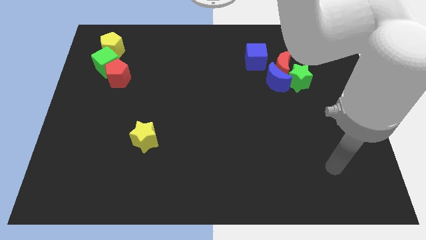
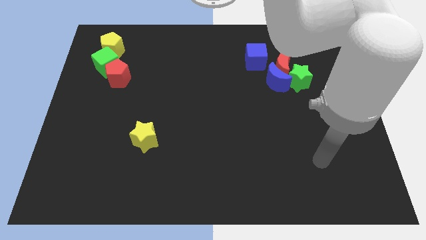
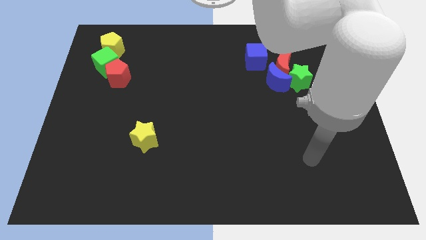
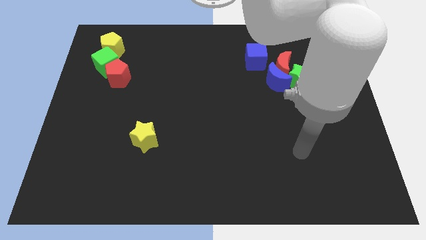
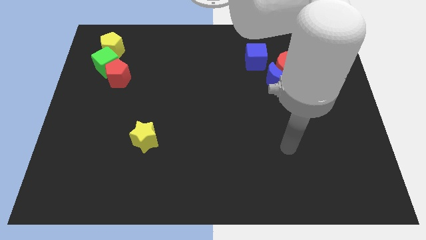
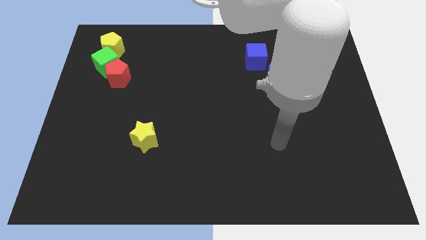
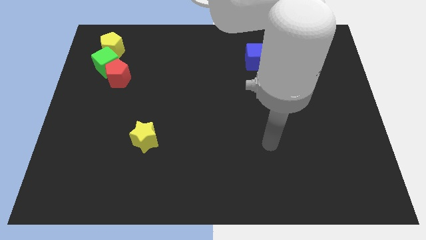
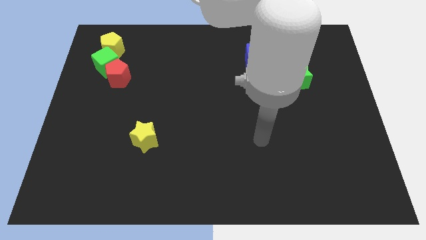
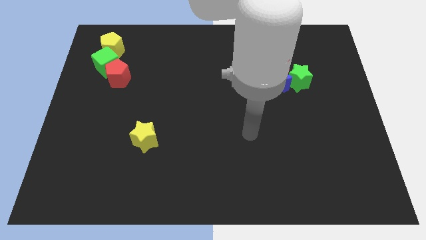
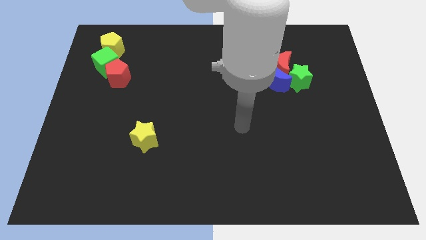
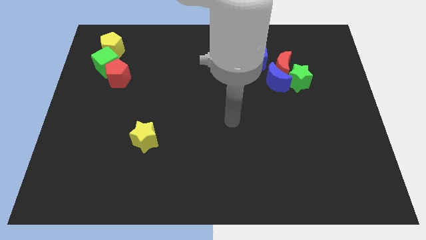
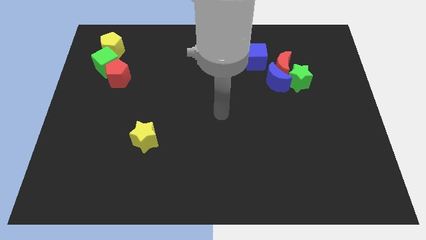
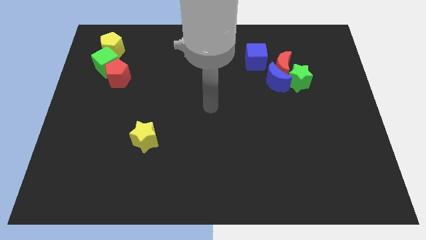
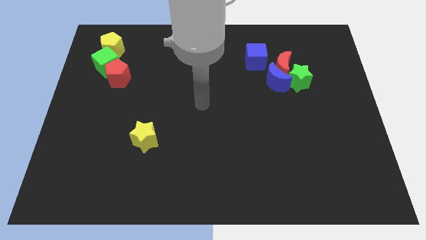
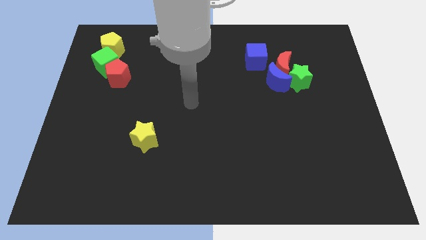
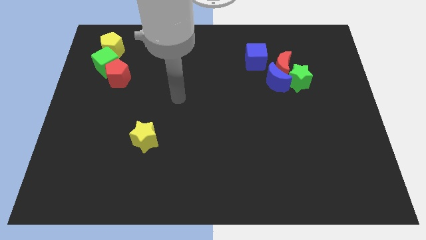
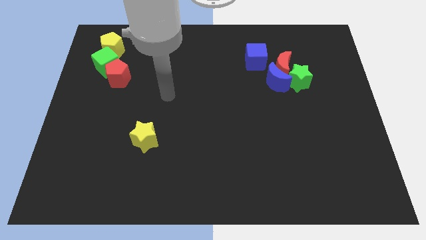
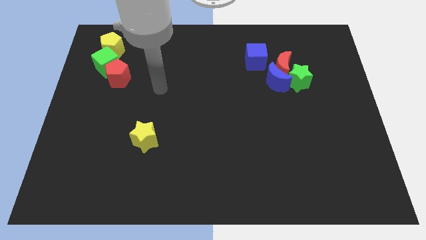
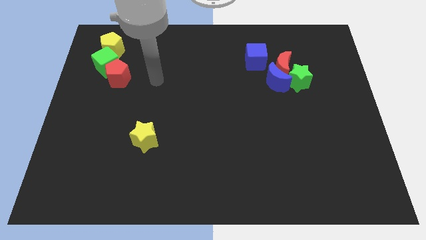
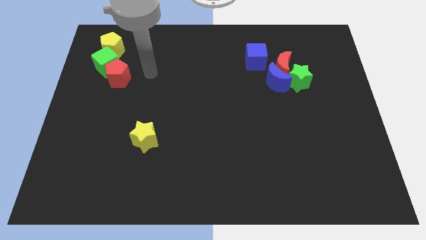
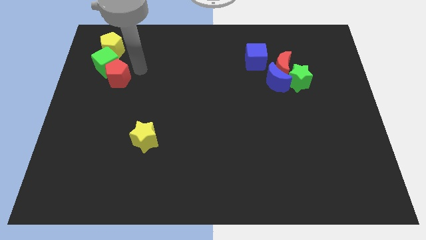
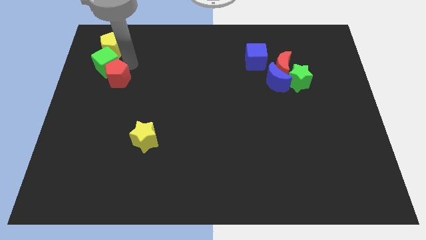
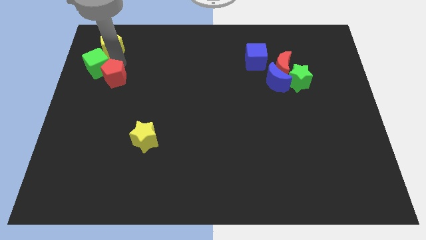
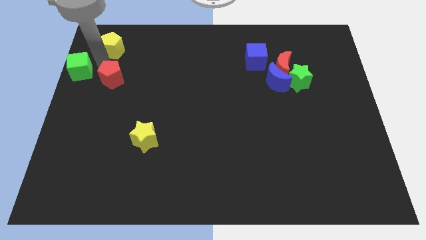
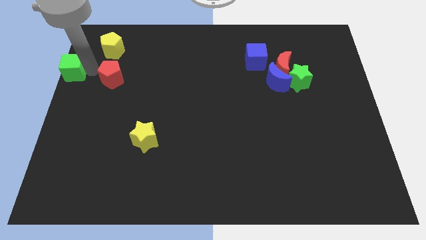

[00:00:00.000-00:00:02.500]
move the red pentagon away from the green cube

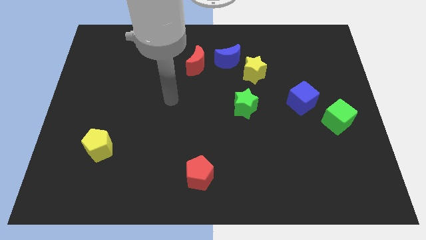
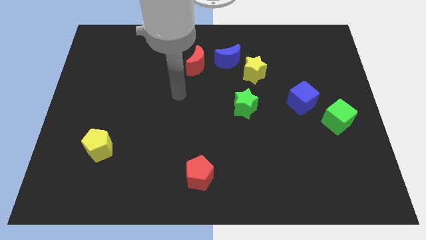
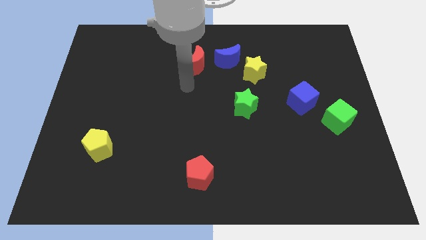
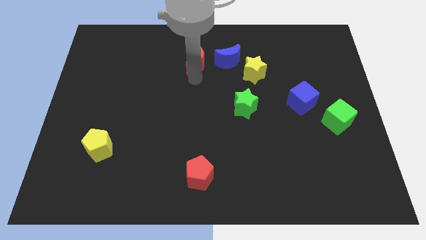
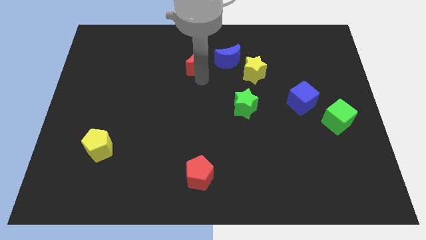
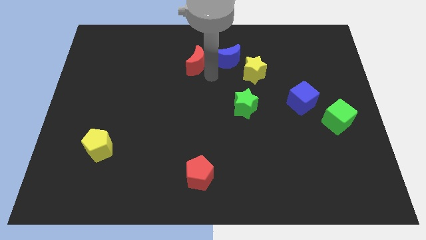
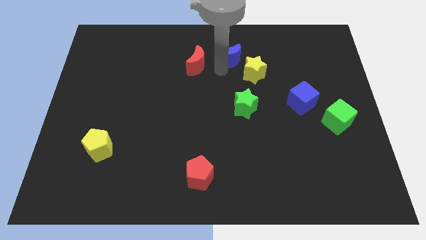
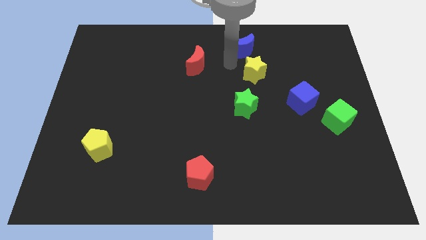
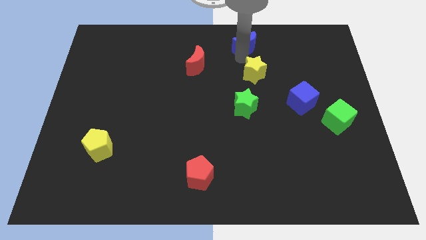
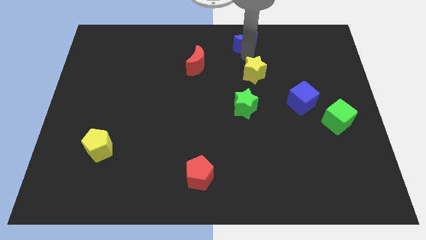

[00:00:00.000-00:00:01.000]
move the yellow star away from the blue moon

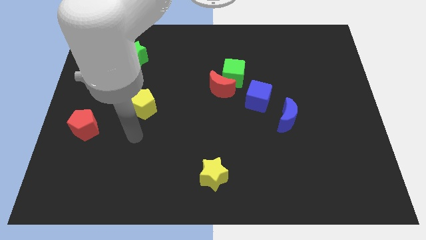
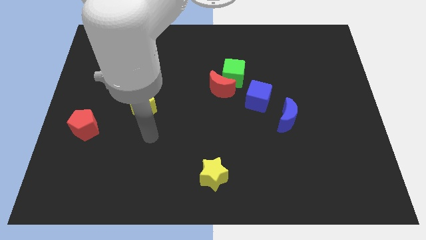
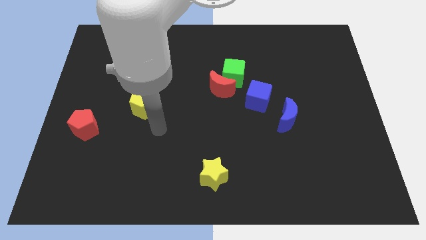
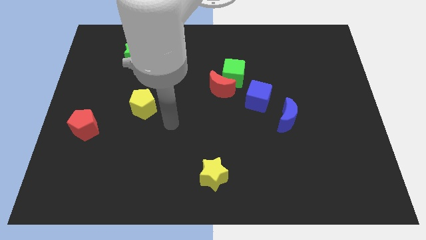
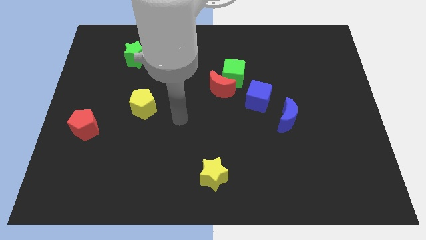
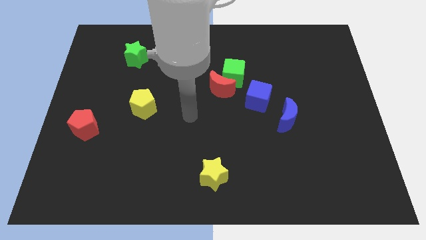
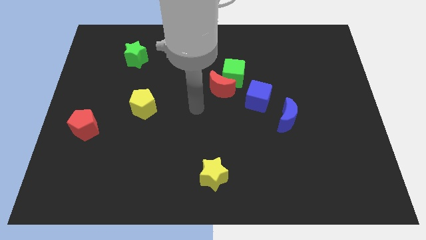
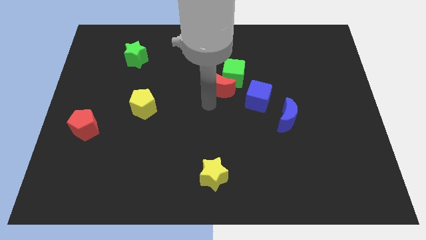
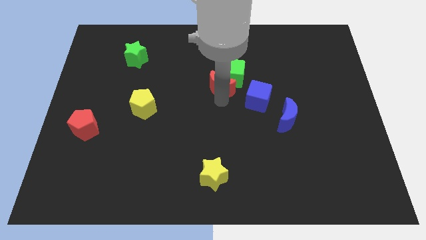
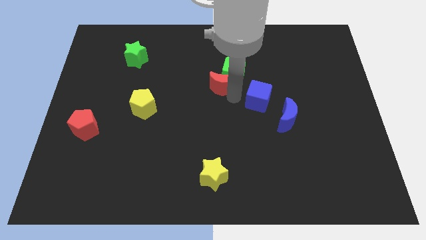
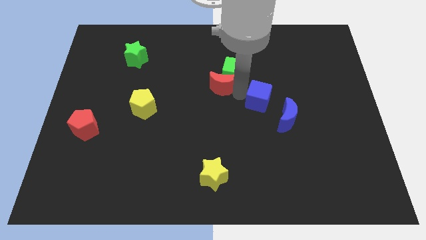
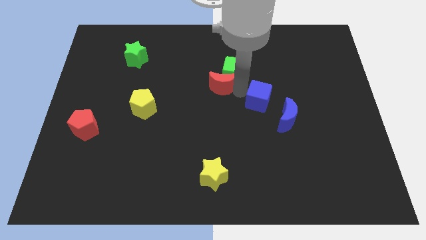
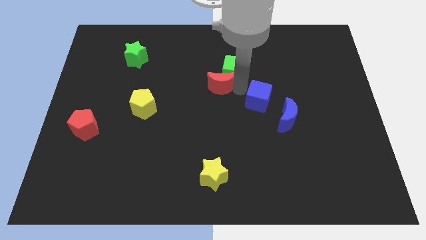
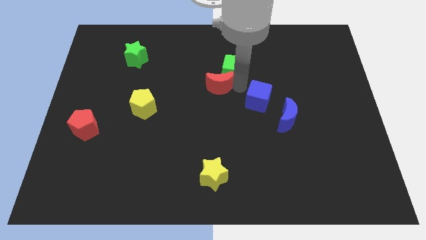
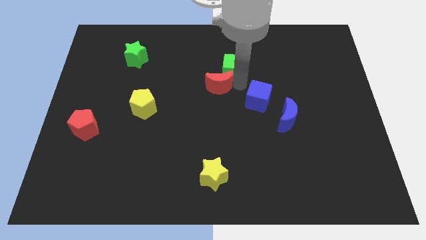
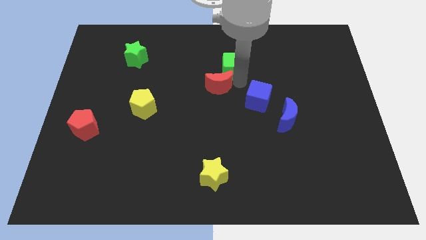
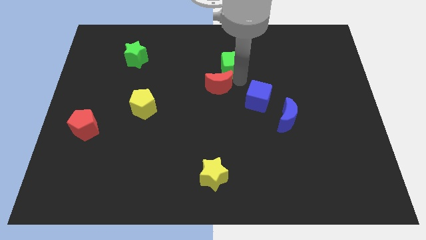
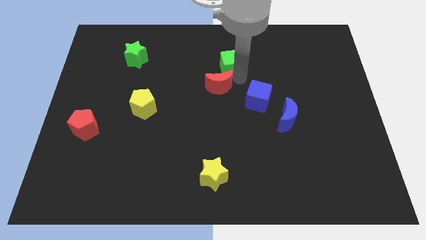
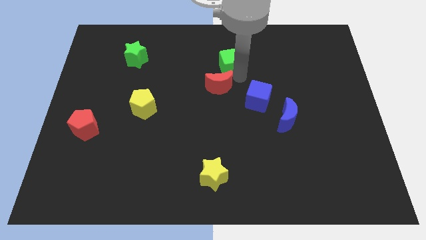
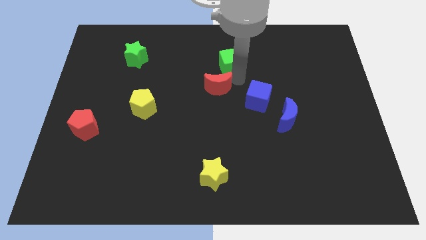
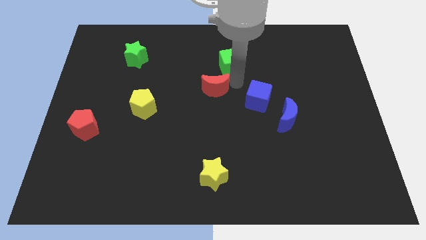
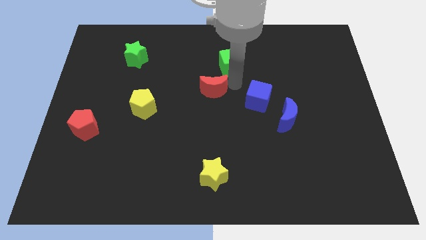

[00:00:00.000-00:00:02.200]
separate the green cube from the red moon and blue cube

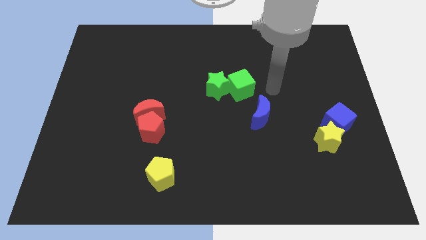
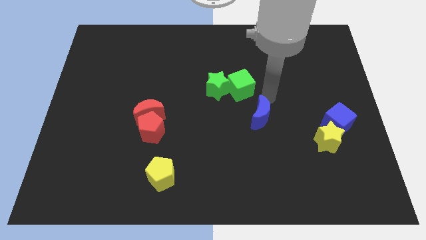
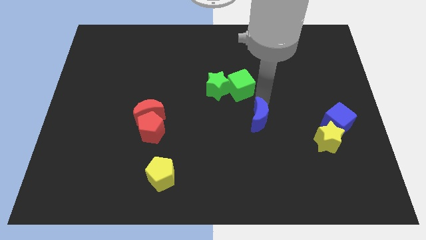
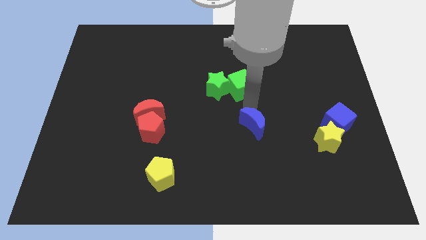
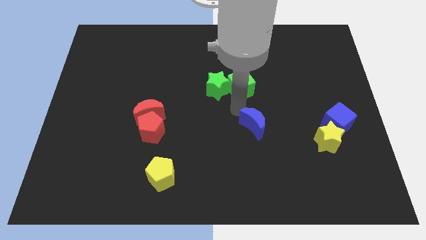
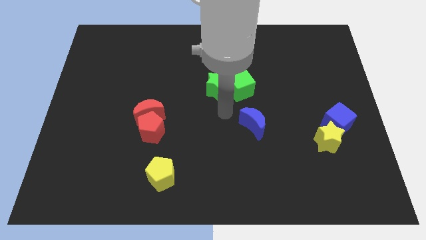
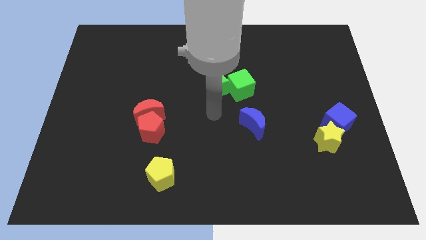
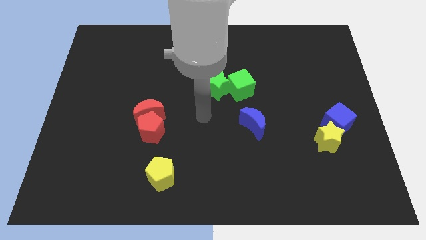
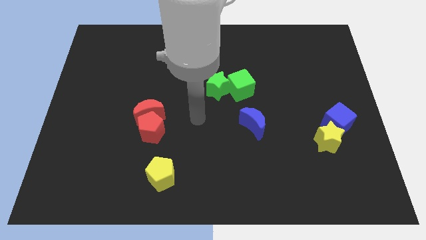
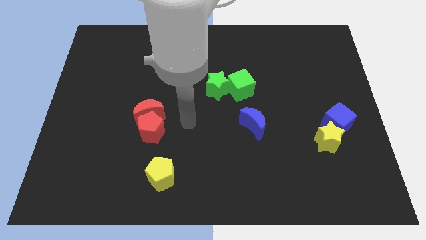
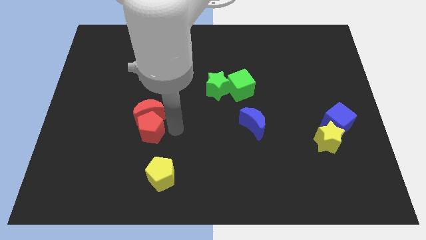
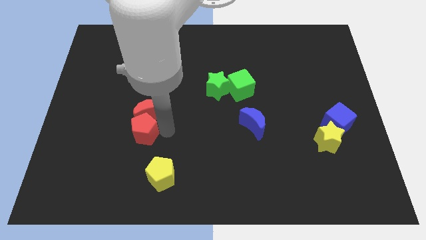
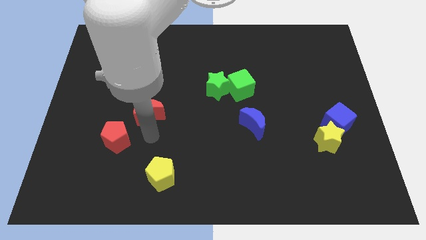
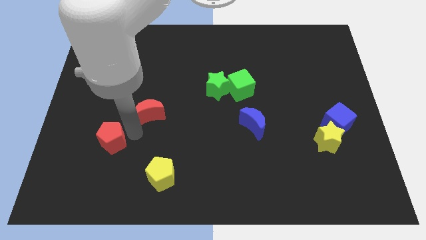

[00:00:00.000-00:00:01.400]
move the red moon away from the red pentagon

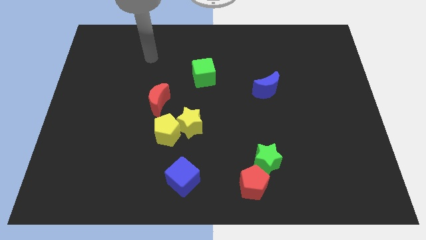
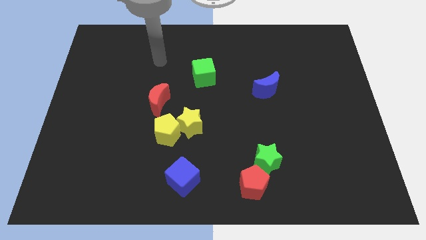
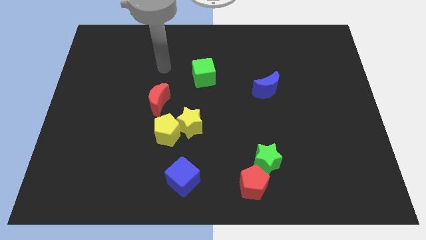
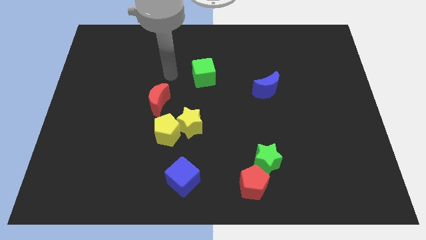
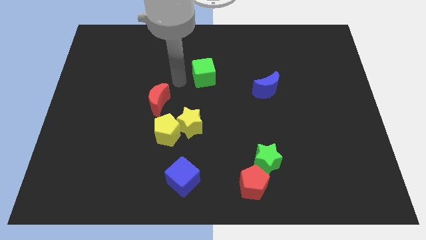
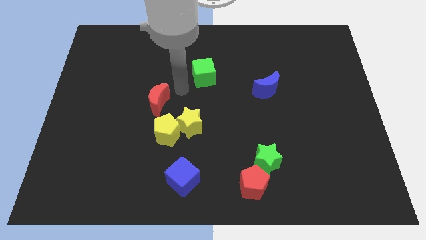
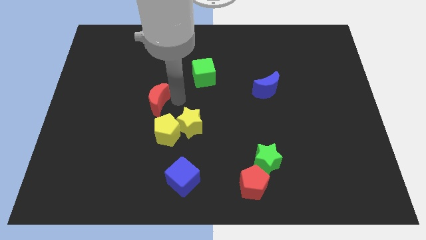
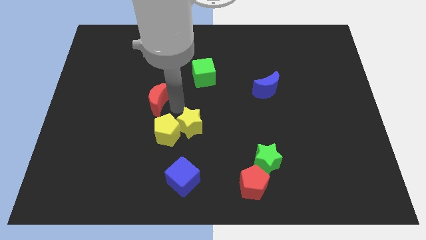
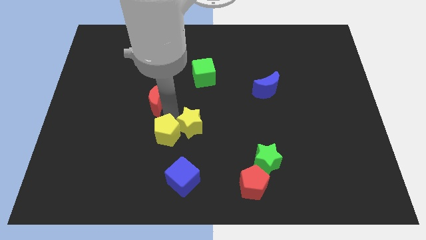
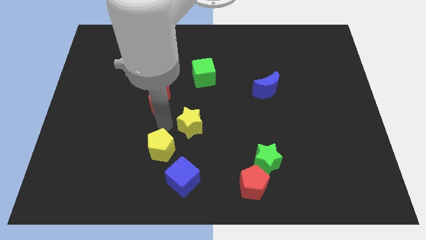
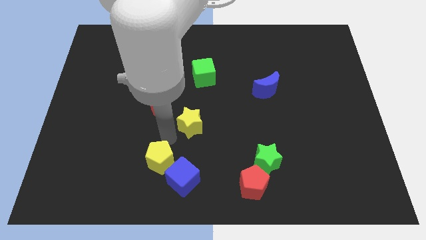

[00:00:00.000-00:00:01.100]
pull the yellow star apart from the yellow pentagon

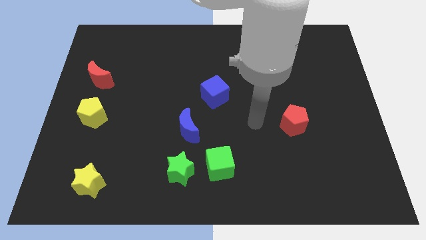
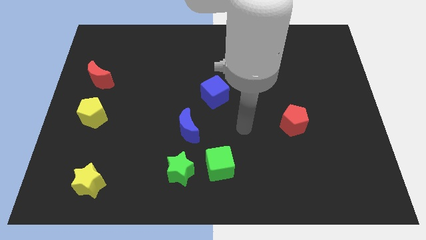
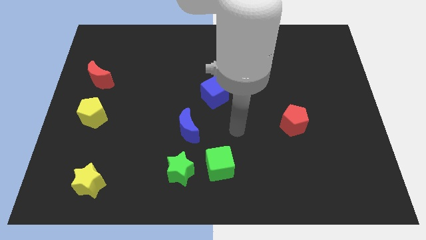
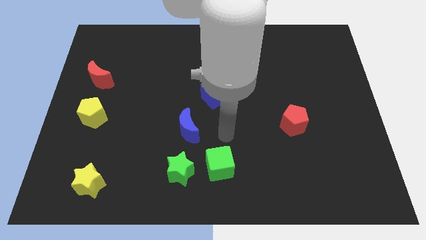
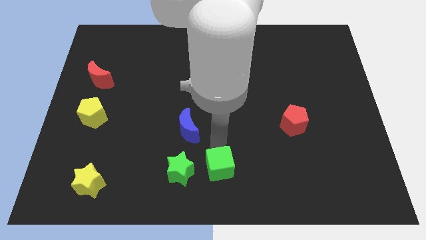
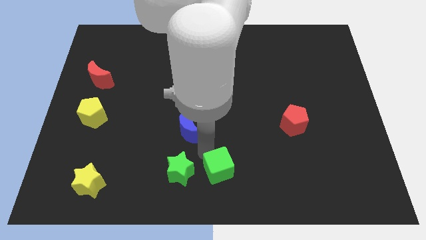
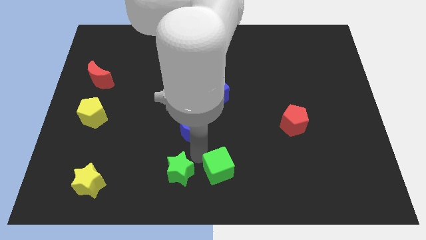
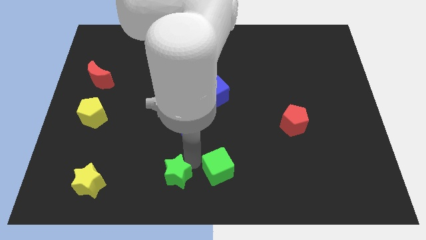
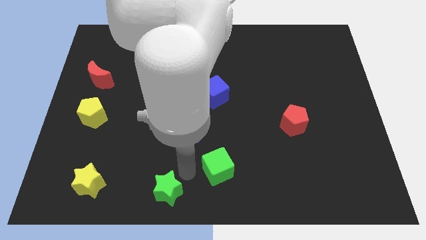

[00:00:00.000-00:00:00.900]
separate the green cube from the green star
